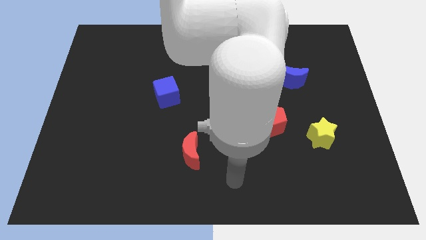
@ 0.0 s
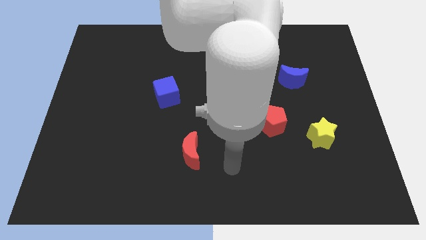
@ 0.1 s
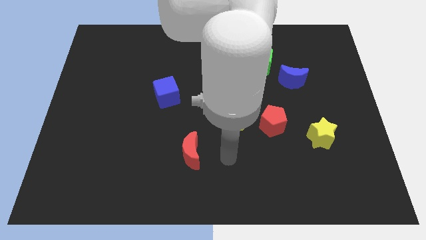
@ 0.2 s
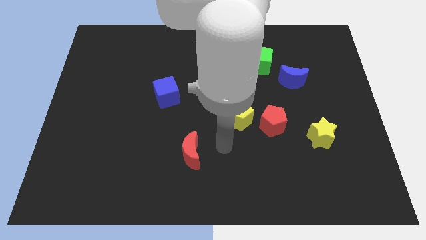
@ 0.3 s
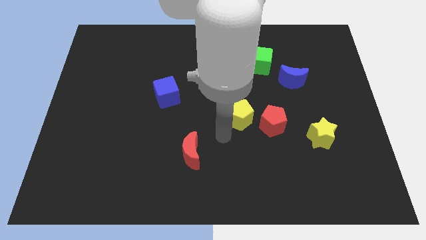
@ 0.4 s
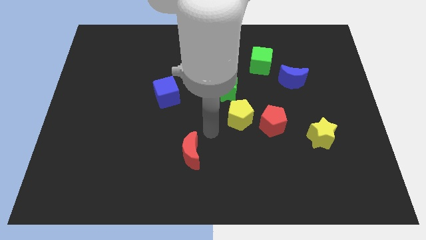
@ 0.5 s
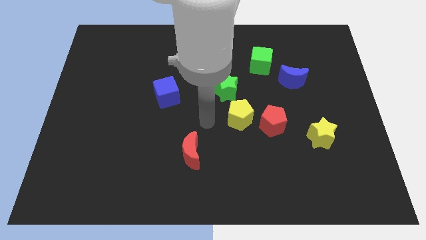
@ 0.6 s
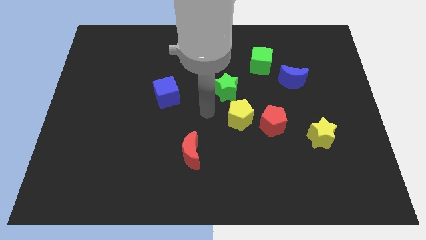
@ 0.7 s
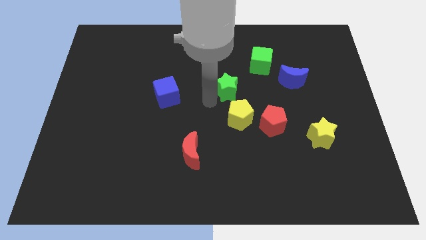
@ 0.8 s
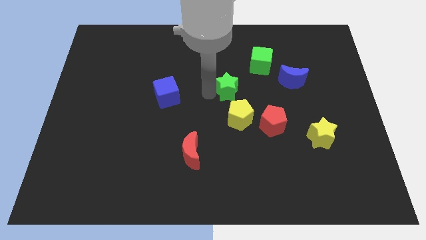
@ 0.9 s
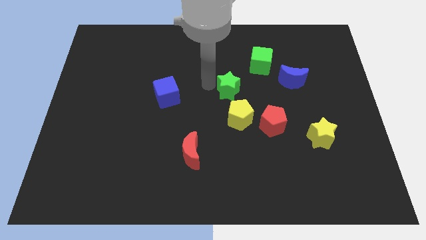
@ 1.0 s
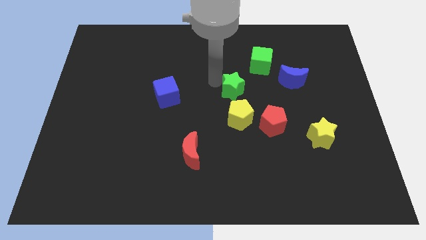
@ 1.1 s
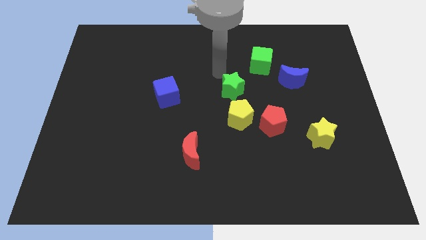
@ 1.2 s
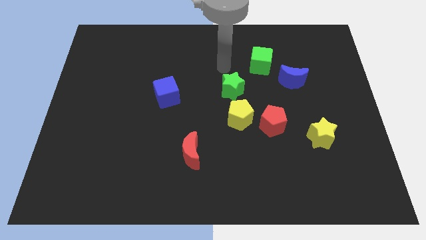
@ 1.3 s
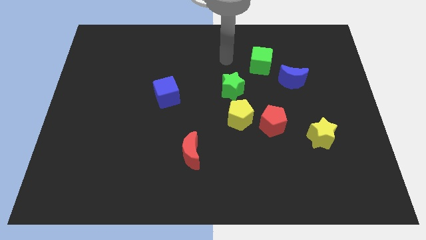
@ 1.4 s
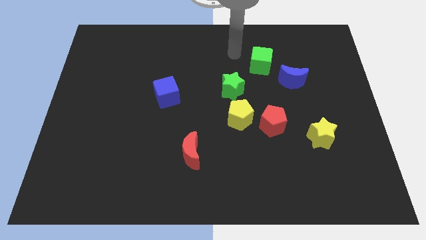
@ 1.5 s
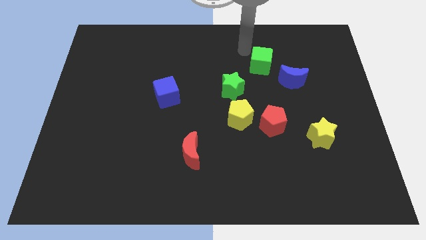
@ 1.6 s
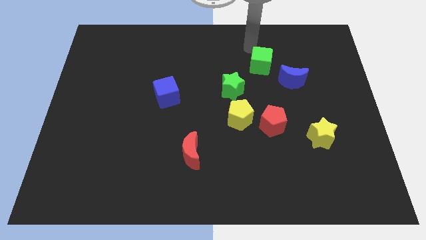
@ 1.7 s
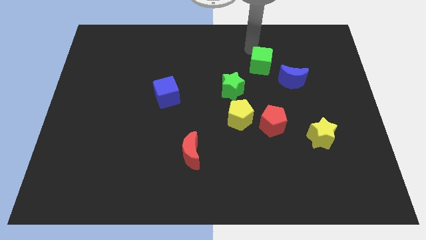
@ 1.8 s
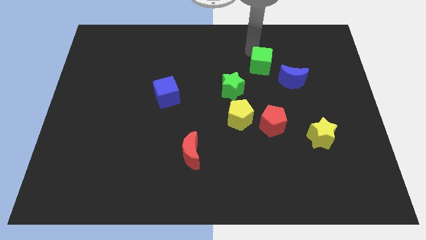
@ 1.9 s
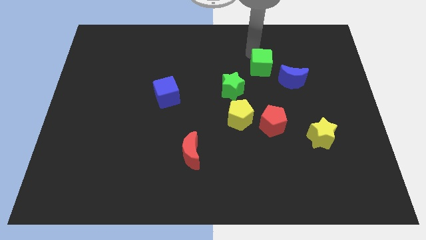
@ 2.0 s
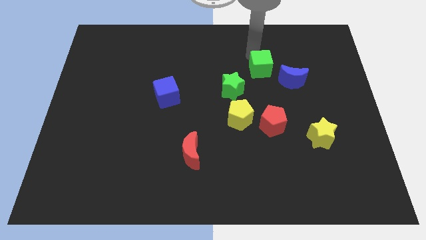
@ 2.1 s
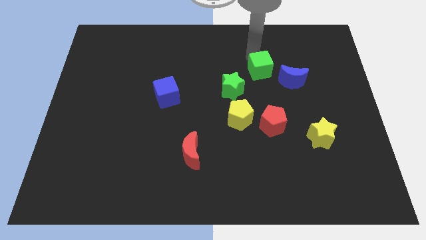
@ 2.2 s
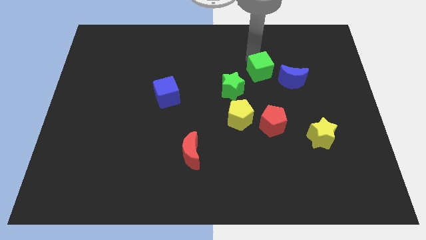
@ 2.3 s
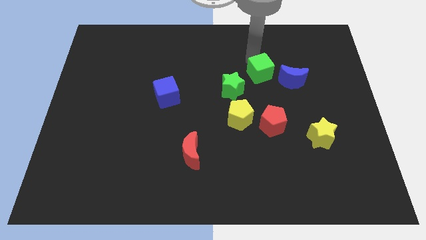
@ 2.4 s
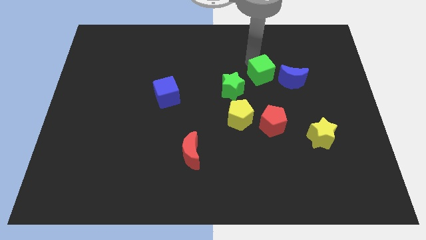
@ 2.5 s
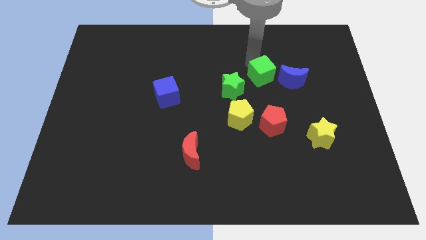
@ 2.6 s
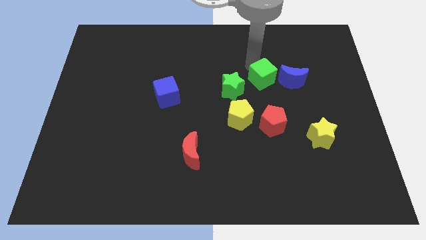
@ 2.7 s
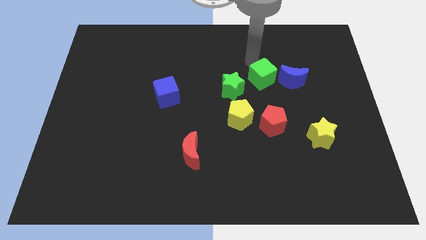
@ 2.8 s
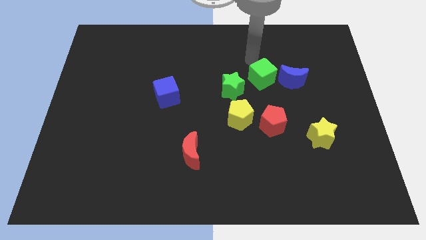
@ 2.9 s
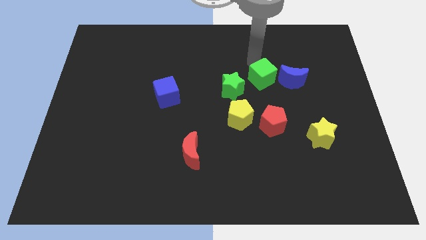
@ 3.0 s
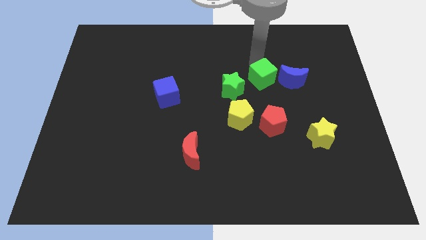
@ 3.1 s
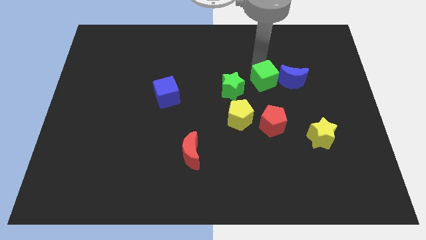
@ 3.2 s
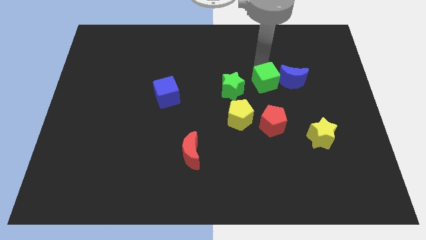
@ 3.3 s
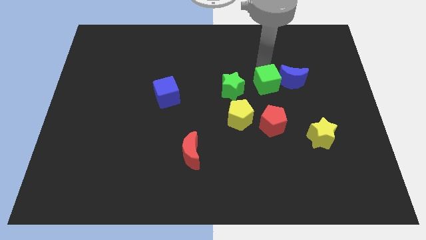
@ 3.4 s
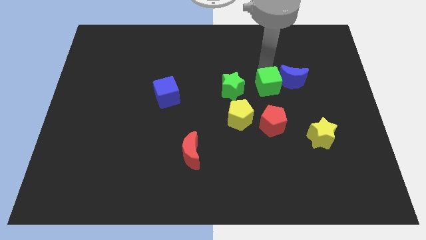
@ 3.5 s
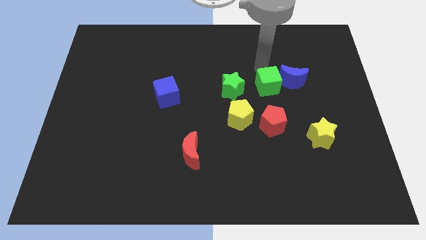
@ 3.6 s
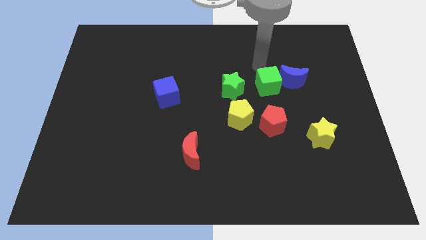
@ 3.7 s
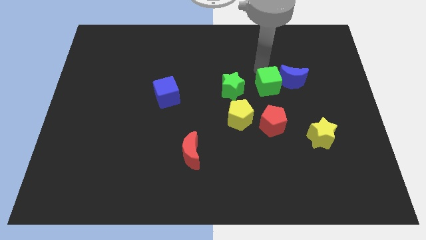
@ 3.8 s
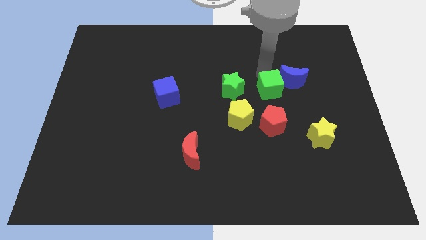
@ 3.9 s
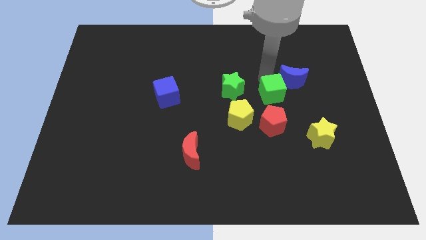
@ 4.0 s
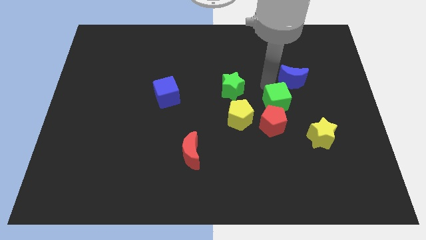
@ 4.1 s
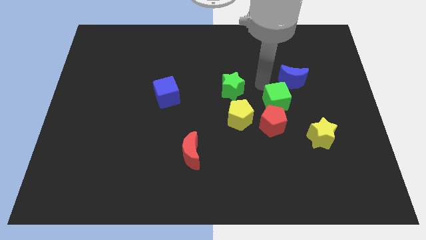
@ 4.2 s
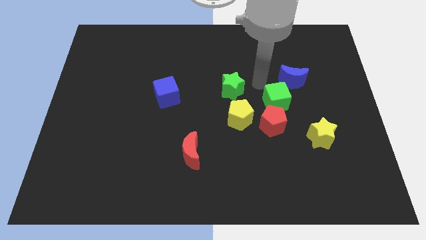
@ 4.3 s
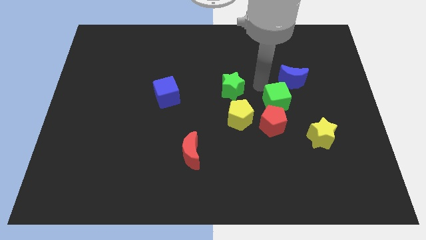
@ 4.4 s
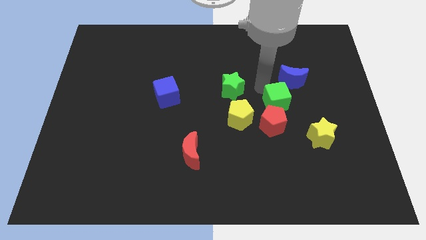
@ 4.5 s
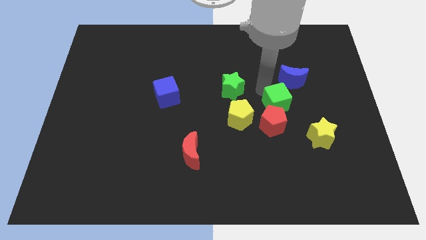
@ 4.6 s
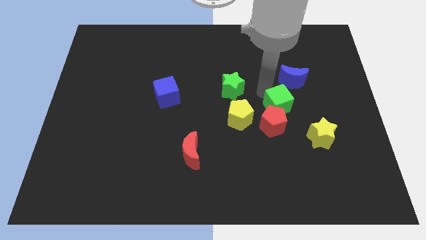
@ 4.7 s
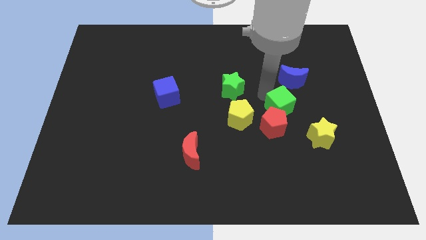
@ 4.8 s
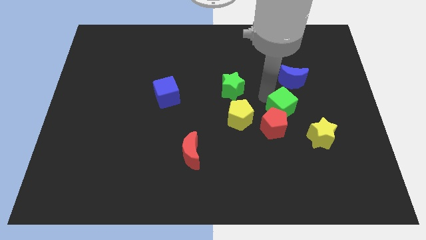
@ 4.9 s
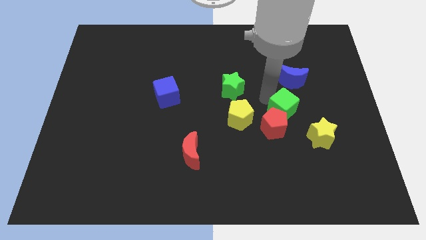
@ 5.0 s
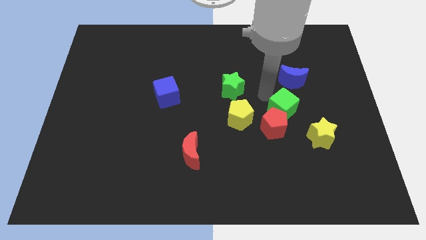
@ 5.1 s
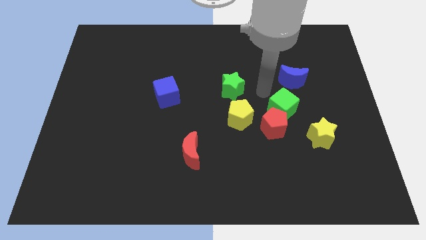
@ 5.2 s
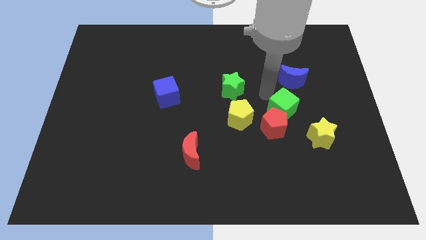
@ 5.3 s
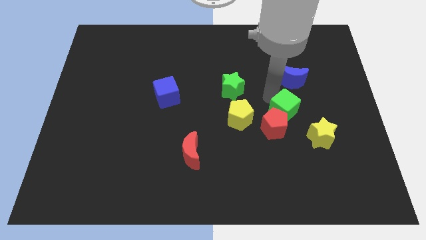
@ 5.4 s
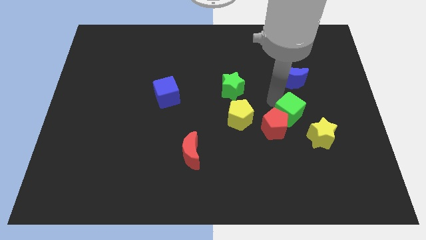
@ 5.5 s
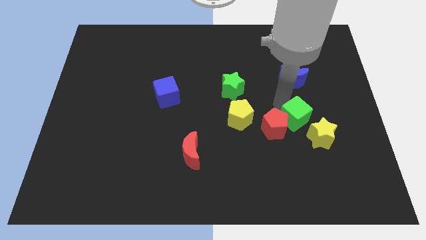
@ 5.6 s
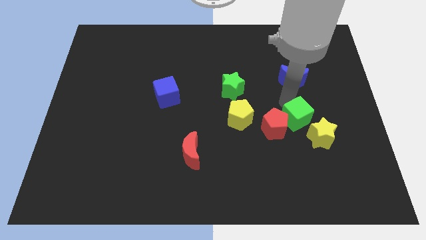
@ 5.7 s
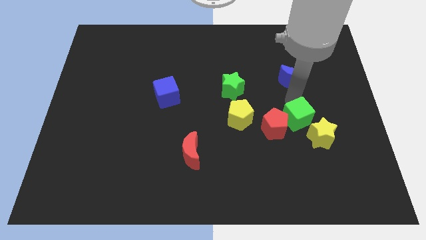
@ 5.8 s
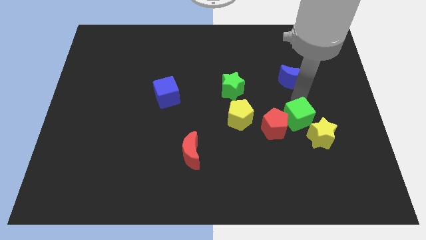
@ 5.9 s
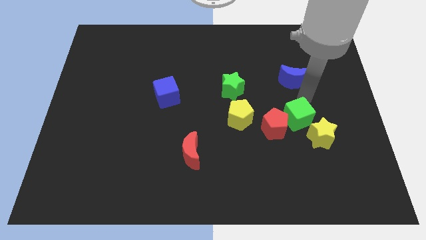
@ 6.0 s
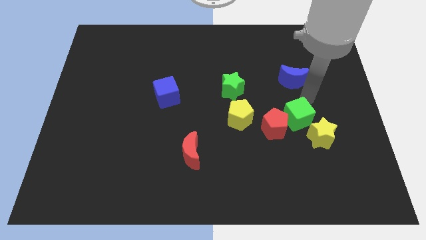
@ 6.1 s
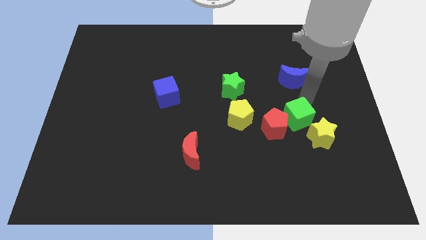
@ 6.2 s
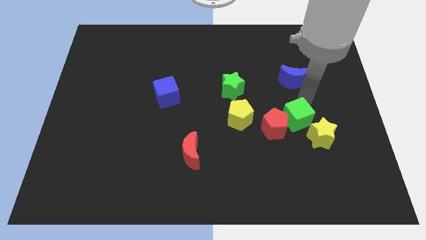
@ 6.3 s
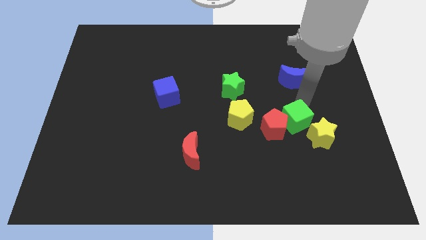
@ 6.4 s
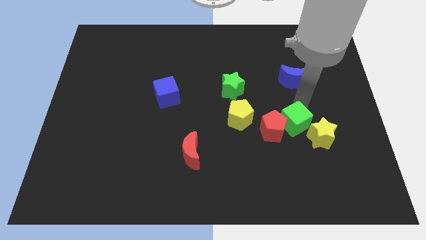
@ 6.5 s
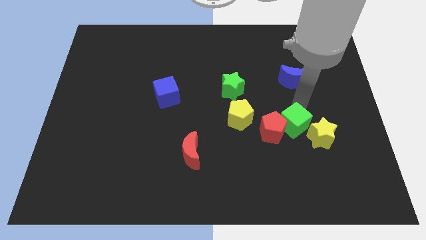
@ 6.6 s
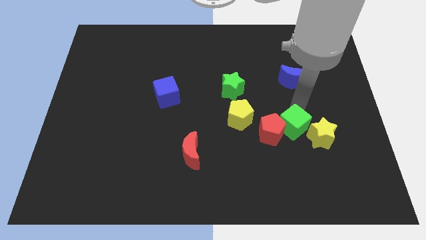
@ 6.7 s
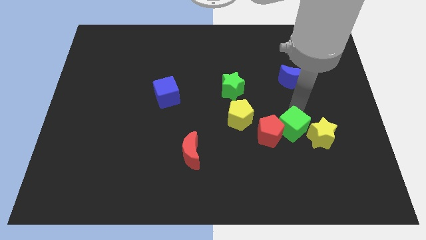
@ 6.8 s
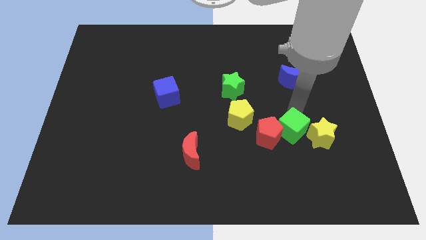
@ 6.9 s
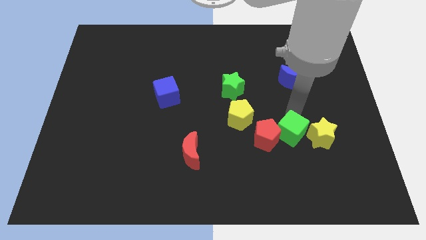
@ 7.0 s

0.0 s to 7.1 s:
push the green cube down

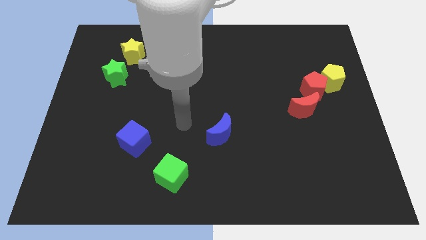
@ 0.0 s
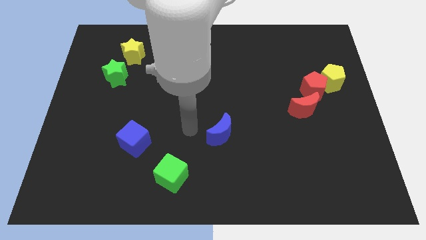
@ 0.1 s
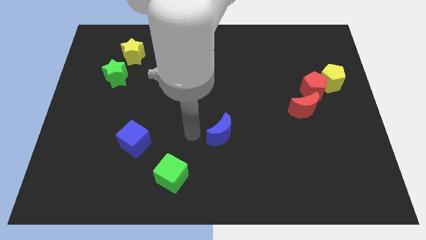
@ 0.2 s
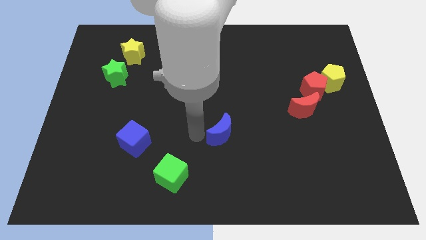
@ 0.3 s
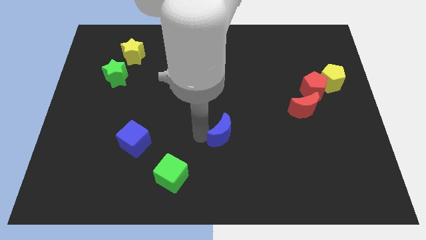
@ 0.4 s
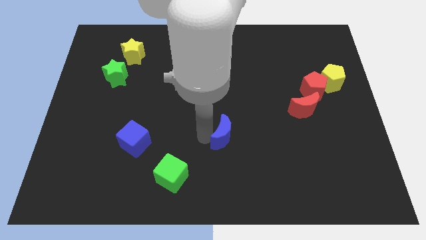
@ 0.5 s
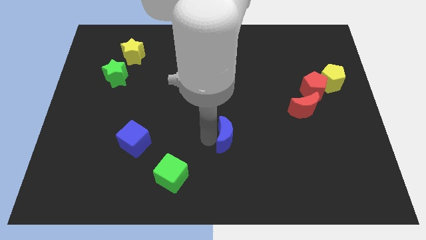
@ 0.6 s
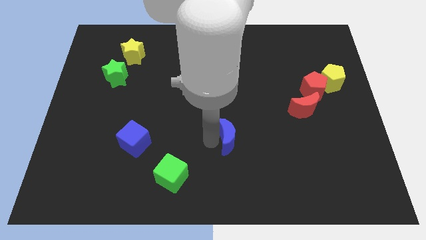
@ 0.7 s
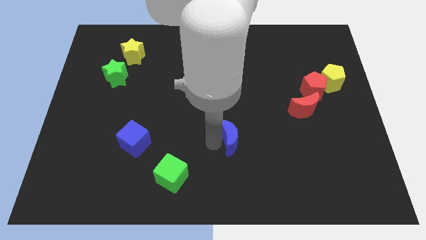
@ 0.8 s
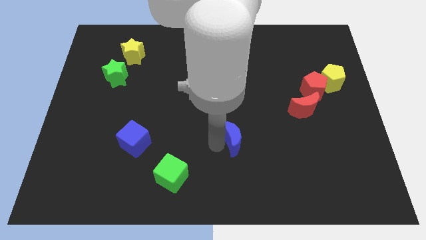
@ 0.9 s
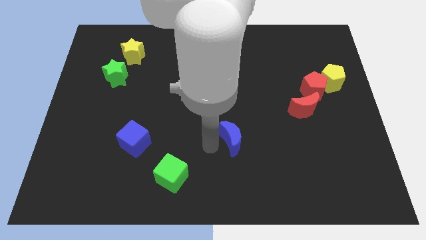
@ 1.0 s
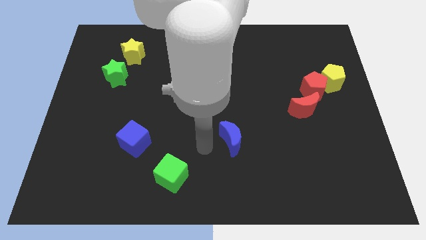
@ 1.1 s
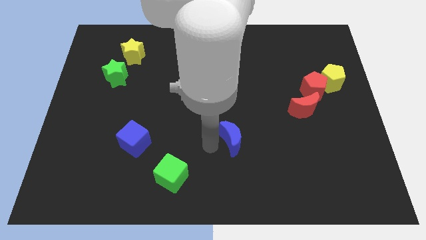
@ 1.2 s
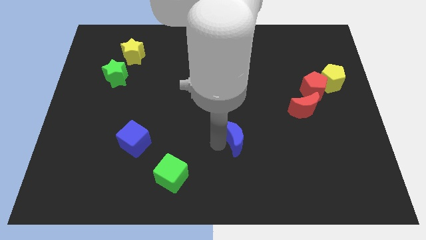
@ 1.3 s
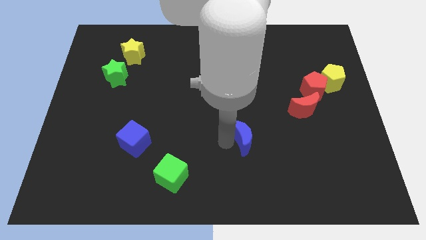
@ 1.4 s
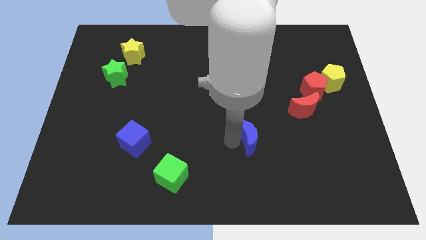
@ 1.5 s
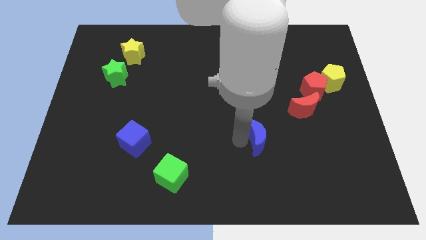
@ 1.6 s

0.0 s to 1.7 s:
slide the blue moon slightly right
